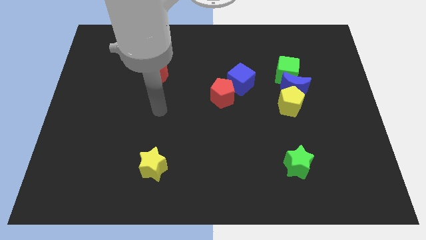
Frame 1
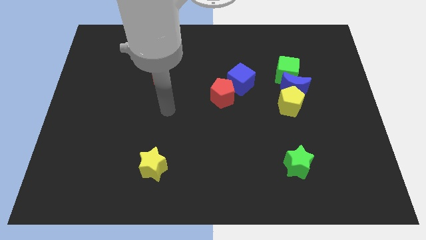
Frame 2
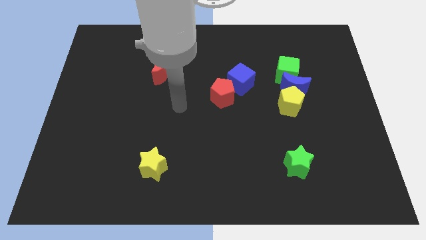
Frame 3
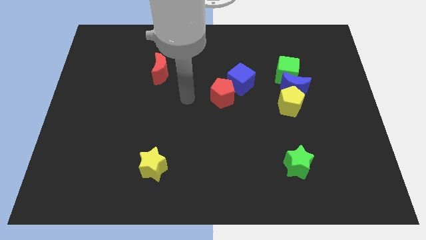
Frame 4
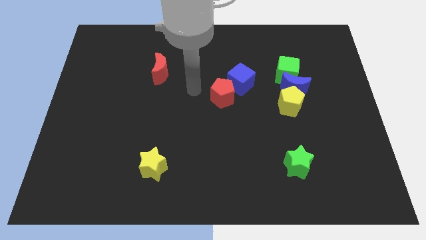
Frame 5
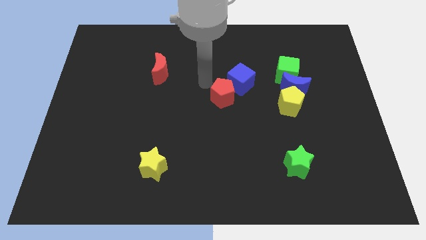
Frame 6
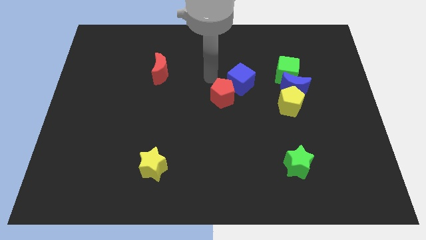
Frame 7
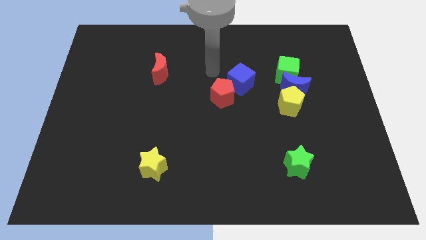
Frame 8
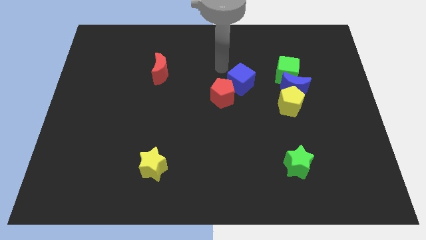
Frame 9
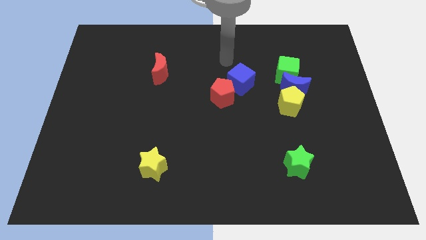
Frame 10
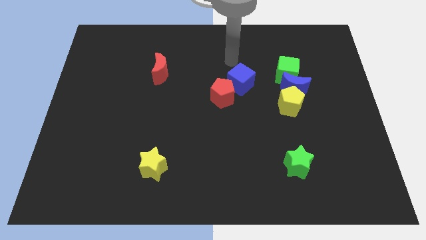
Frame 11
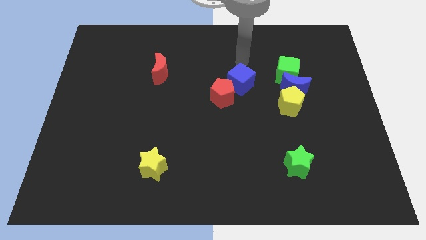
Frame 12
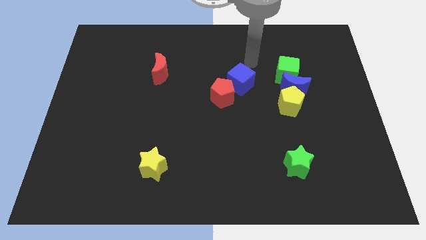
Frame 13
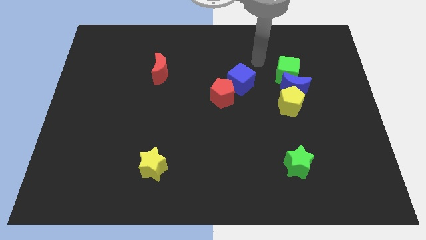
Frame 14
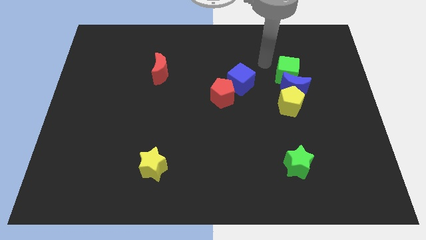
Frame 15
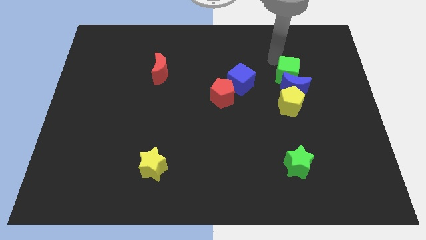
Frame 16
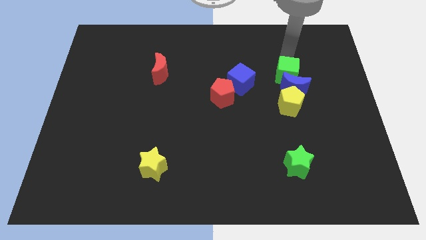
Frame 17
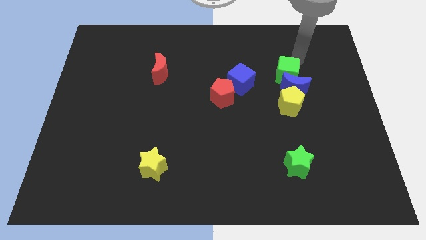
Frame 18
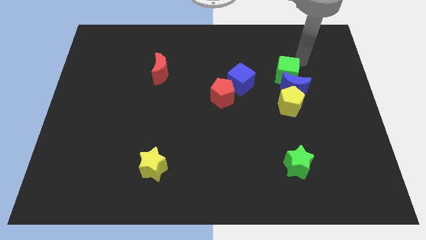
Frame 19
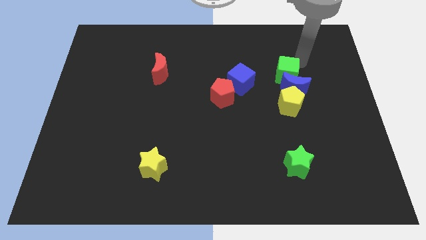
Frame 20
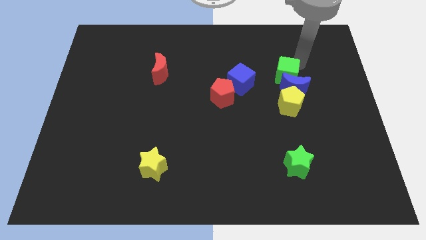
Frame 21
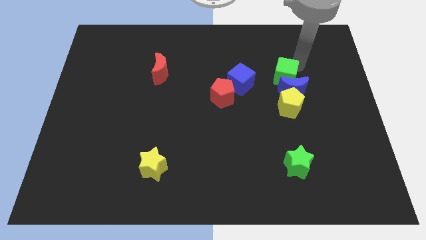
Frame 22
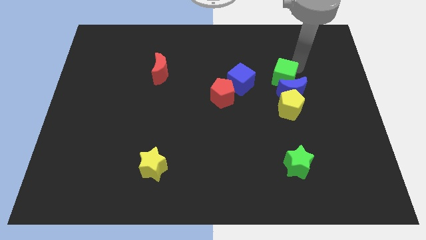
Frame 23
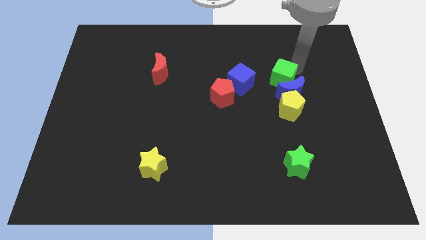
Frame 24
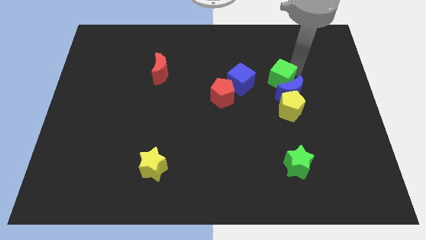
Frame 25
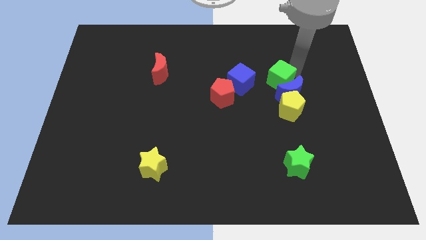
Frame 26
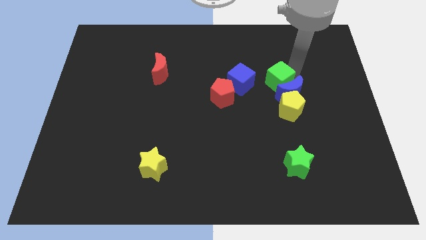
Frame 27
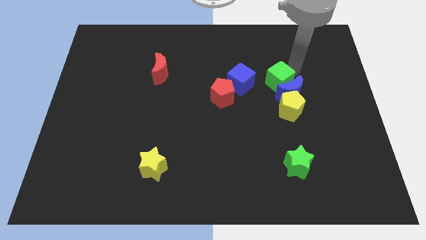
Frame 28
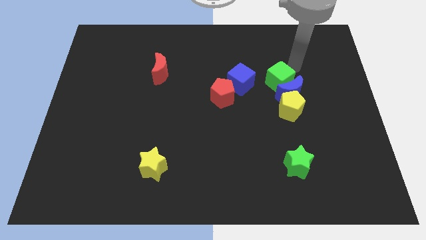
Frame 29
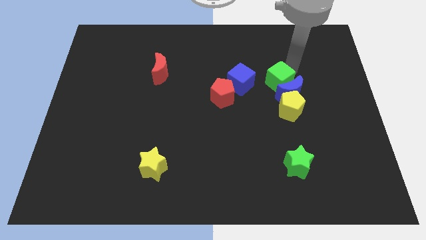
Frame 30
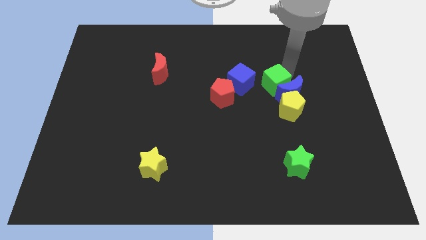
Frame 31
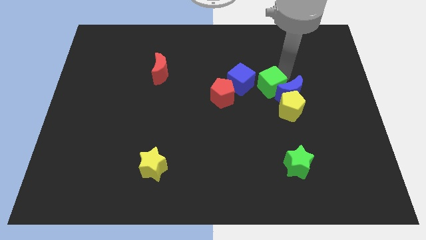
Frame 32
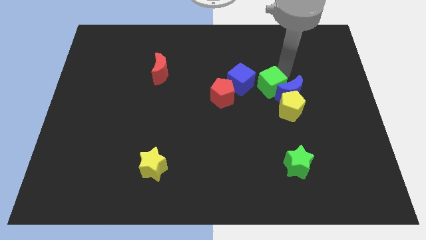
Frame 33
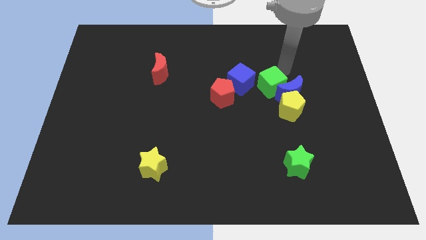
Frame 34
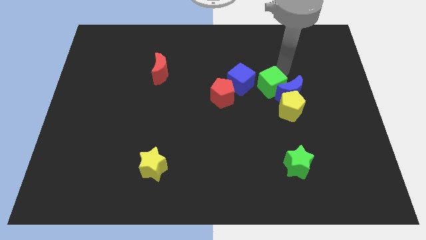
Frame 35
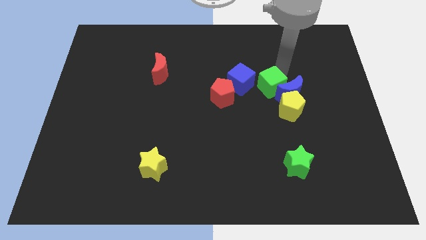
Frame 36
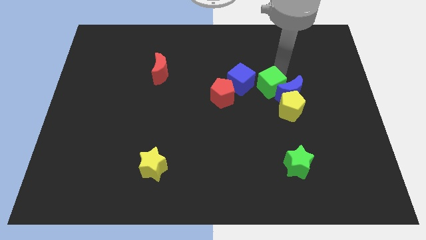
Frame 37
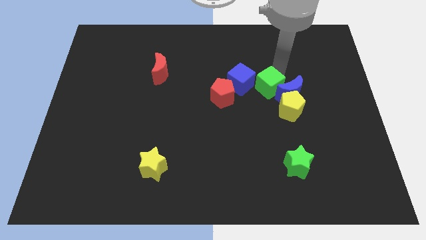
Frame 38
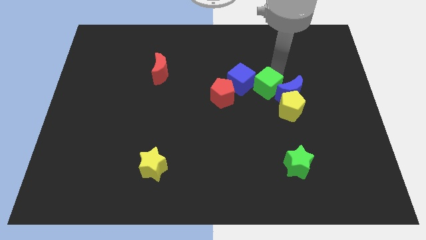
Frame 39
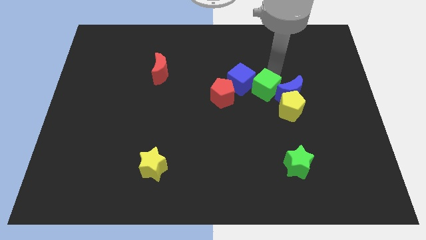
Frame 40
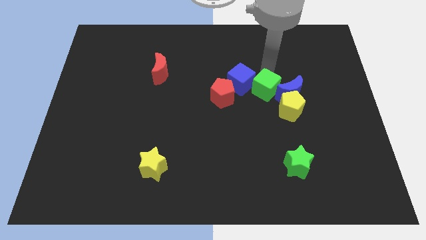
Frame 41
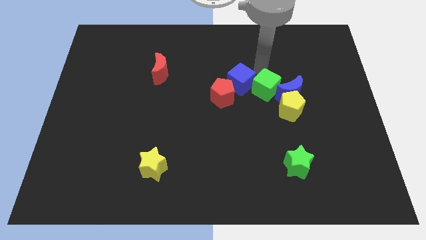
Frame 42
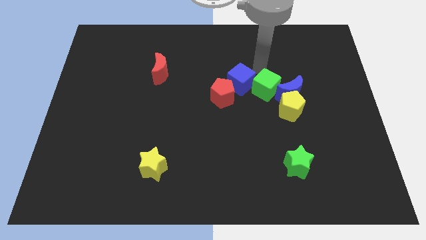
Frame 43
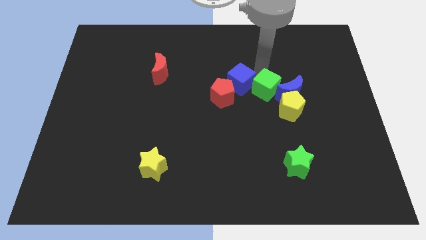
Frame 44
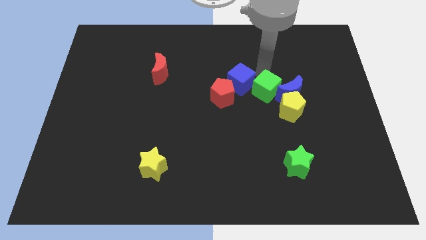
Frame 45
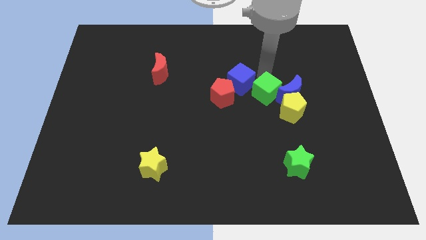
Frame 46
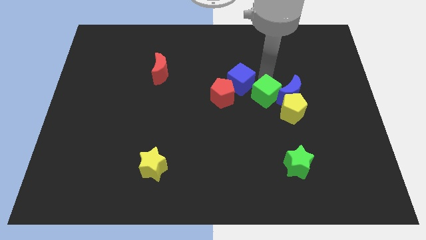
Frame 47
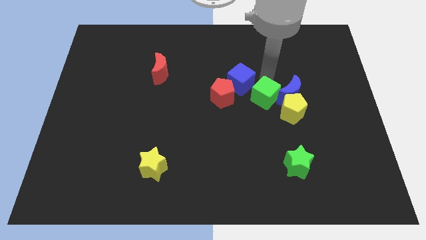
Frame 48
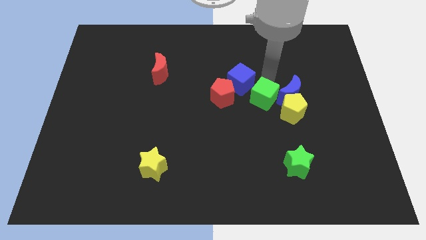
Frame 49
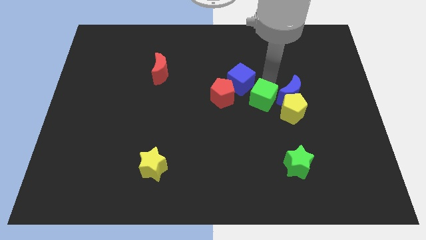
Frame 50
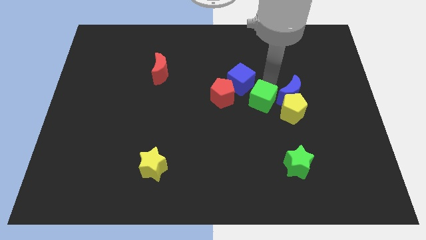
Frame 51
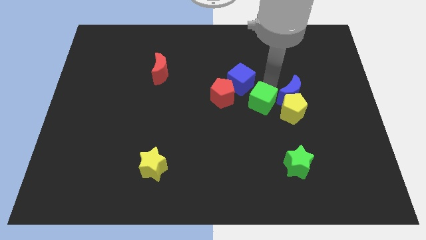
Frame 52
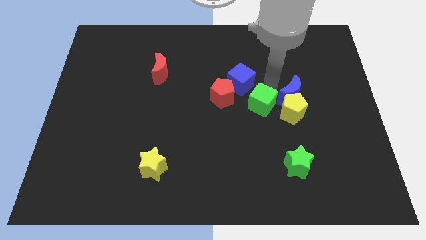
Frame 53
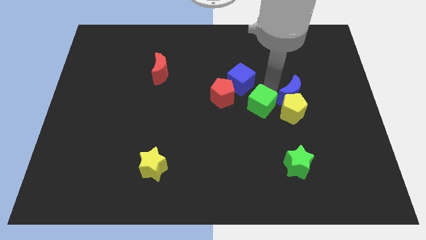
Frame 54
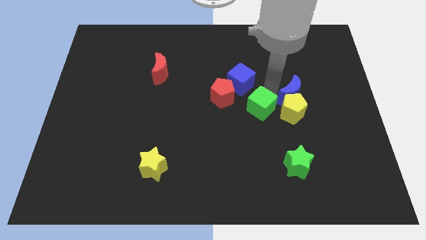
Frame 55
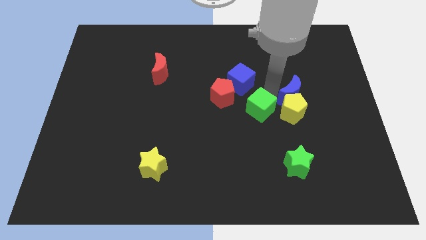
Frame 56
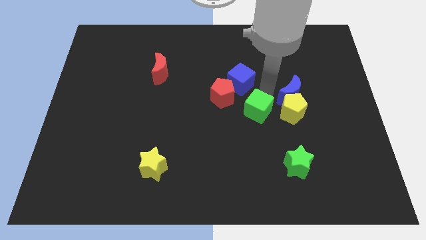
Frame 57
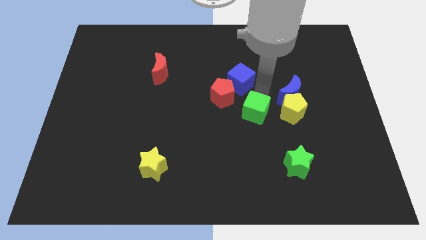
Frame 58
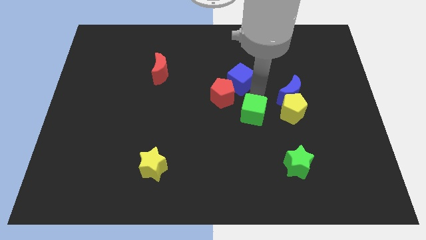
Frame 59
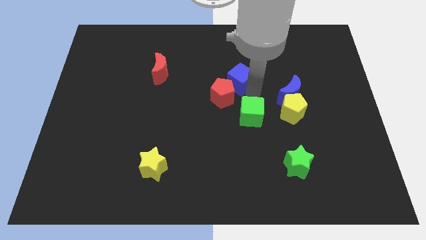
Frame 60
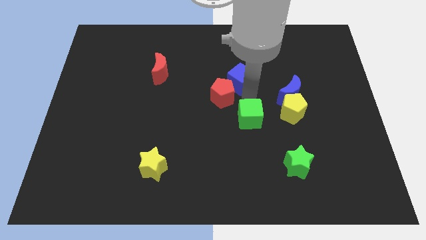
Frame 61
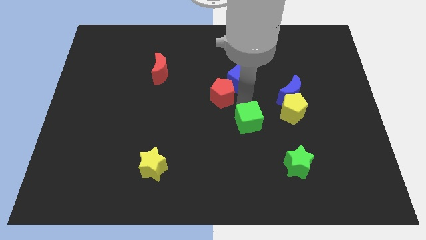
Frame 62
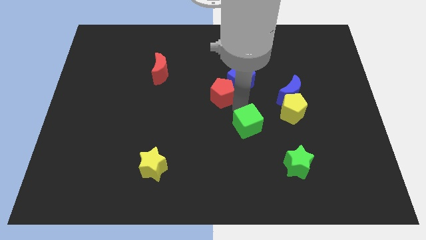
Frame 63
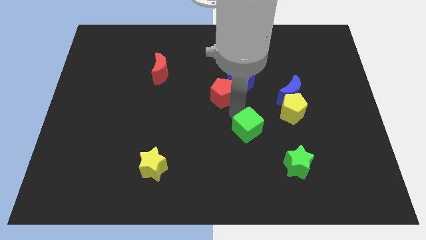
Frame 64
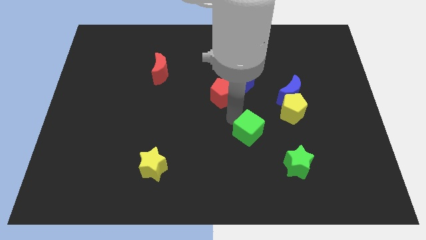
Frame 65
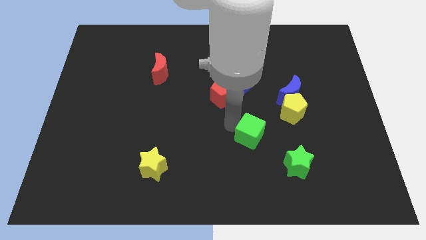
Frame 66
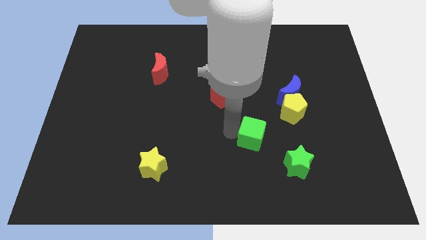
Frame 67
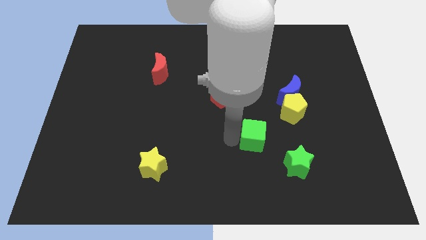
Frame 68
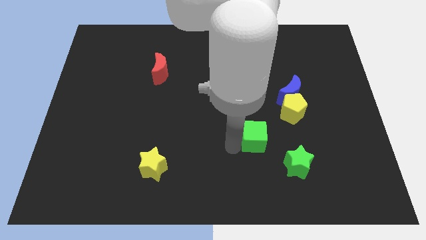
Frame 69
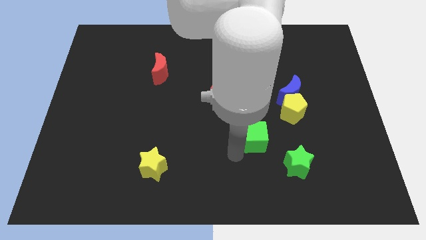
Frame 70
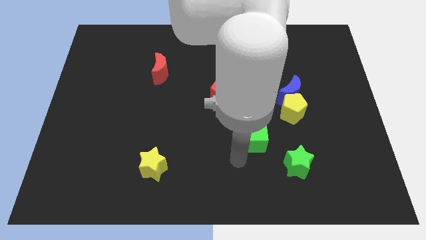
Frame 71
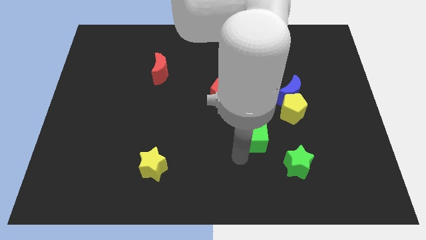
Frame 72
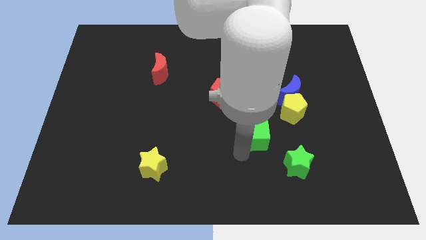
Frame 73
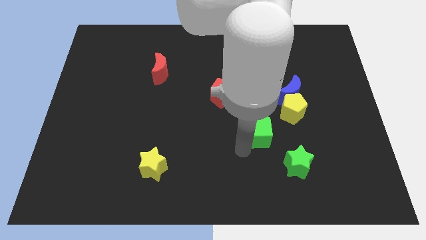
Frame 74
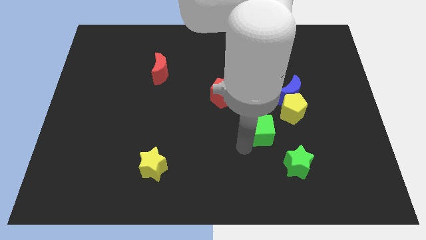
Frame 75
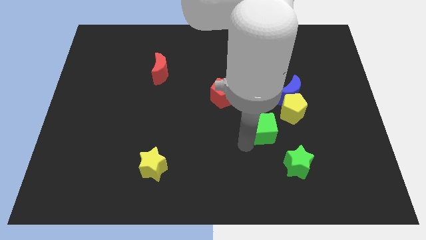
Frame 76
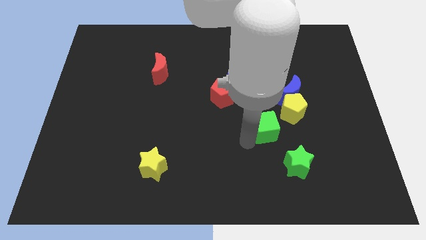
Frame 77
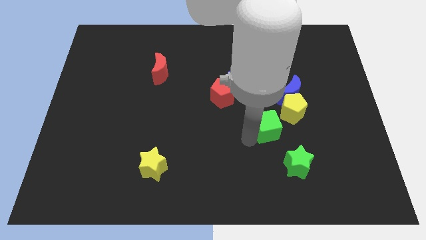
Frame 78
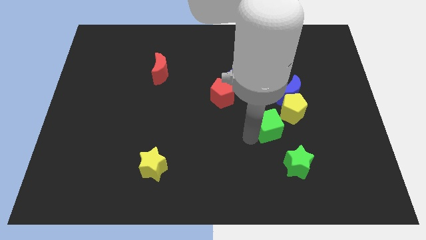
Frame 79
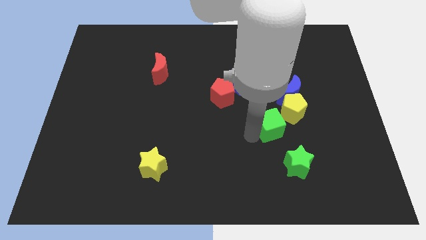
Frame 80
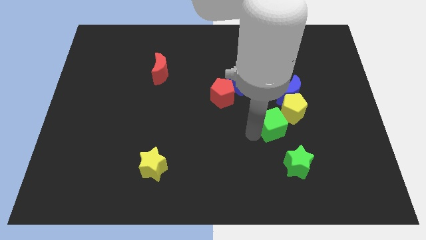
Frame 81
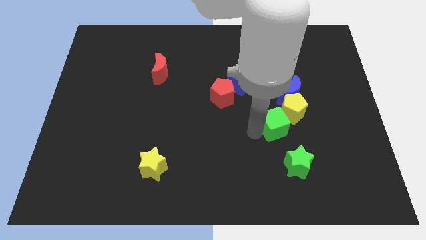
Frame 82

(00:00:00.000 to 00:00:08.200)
slide the green cube to the bottom side of the yellow pentagon
